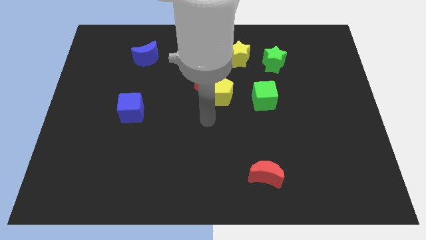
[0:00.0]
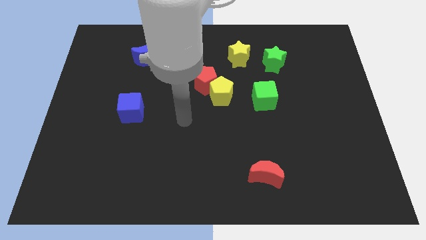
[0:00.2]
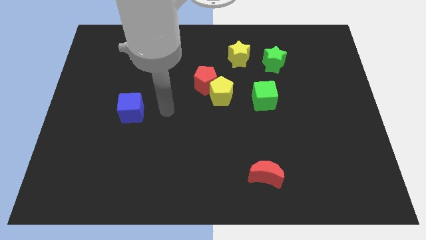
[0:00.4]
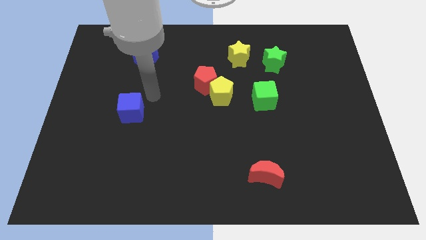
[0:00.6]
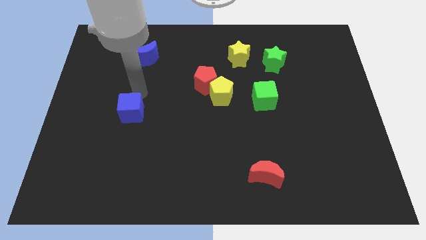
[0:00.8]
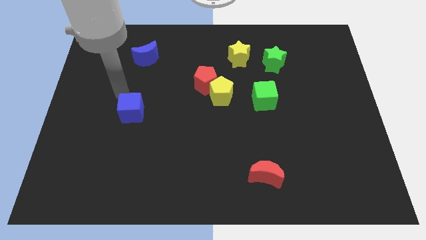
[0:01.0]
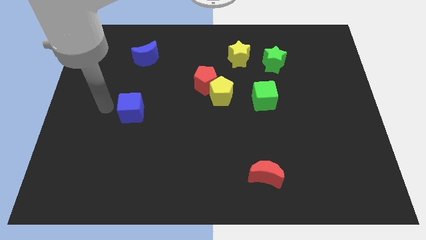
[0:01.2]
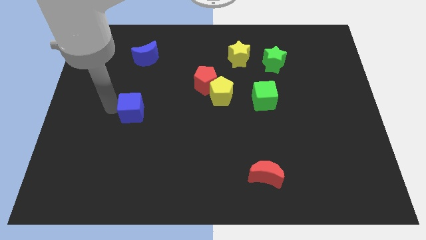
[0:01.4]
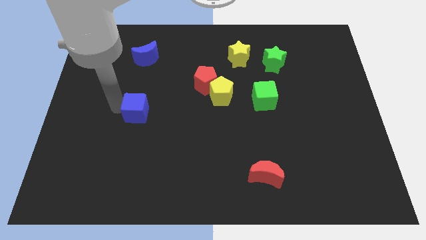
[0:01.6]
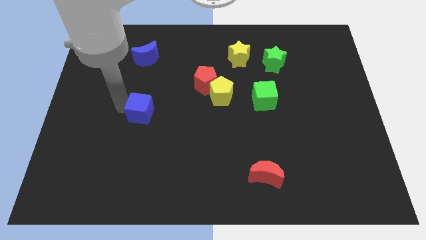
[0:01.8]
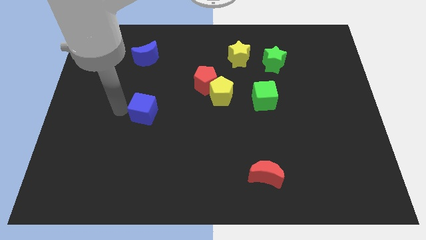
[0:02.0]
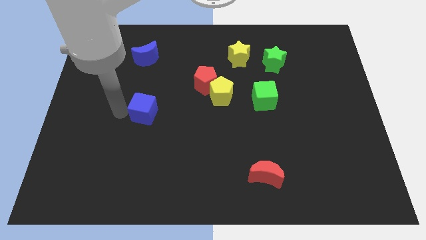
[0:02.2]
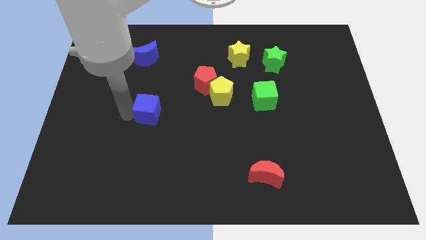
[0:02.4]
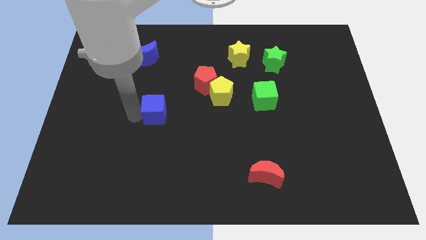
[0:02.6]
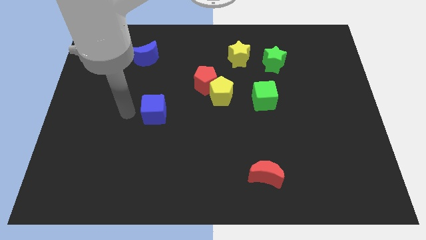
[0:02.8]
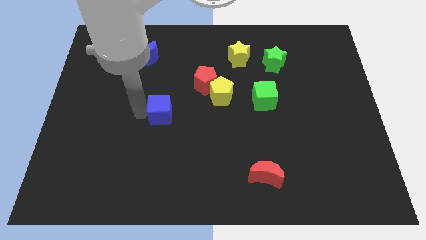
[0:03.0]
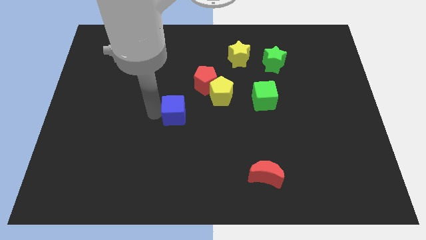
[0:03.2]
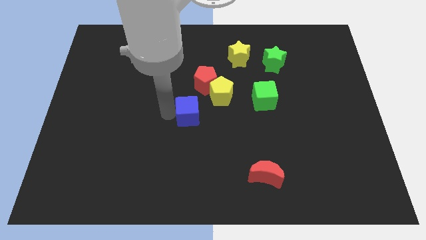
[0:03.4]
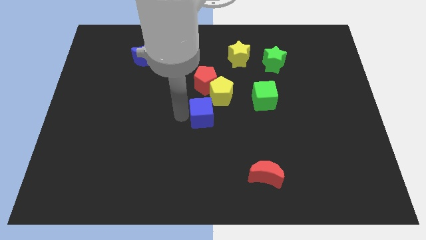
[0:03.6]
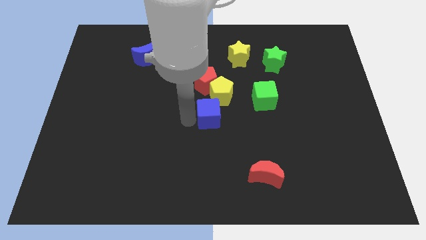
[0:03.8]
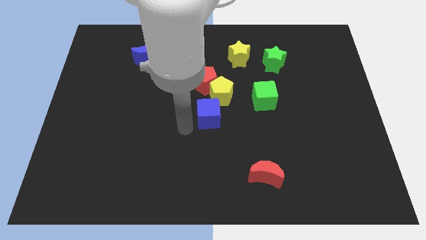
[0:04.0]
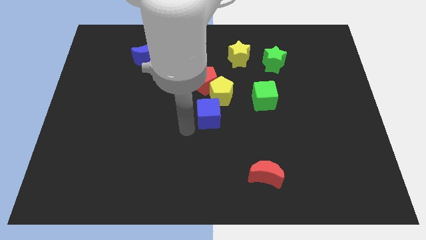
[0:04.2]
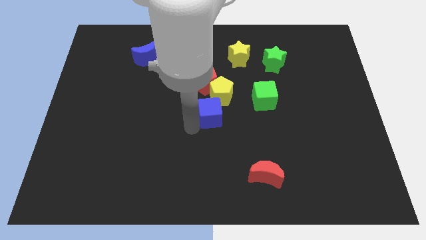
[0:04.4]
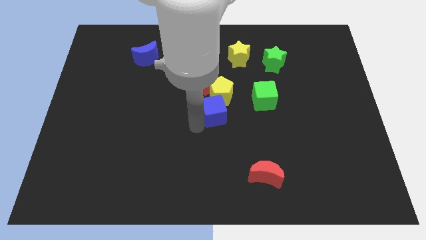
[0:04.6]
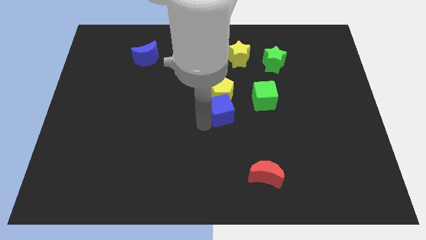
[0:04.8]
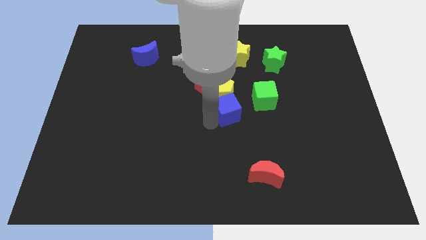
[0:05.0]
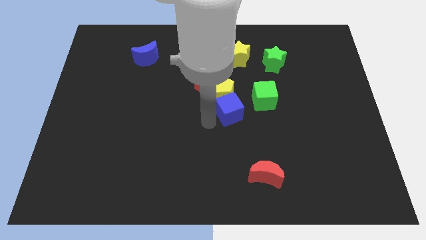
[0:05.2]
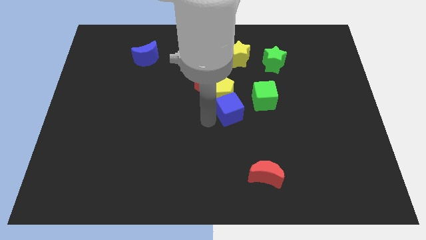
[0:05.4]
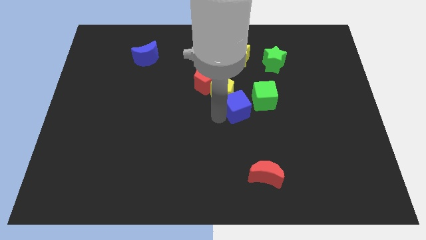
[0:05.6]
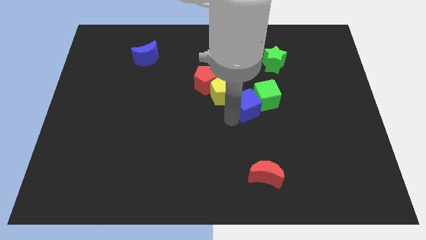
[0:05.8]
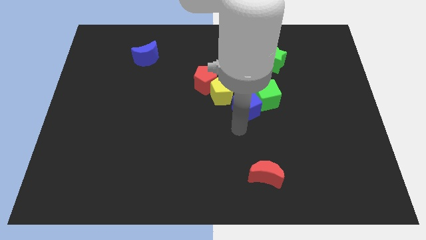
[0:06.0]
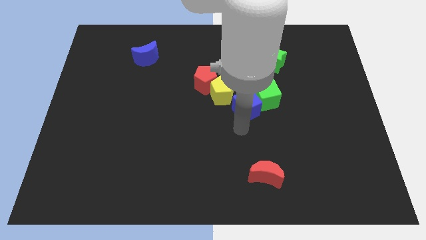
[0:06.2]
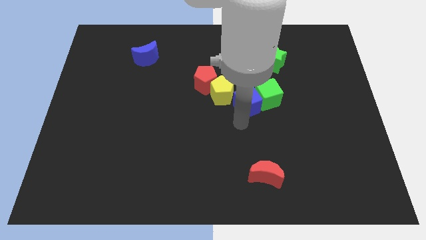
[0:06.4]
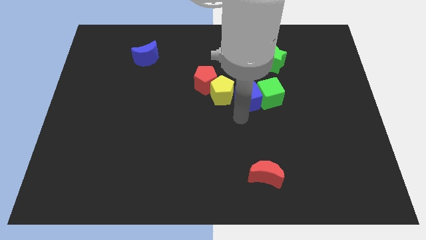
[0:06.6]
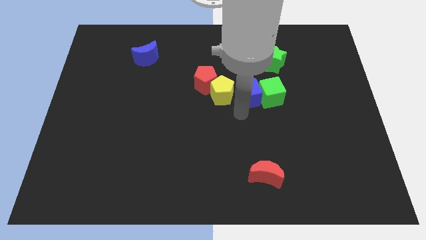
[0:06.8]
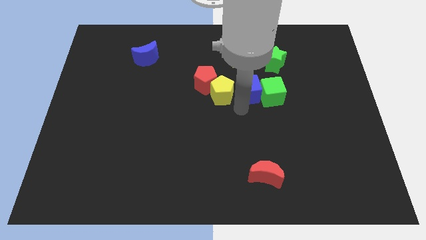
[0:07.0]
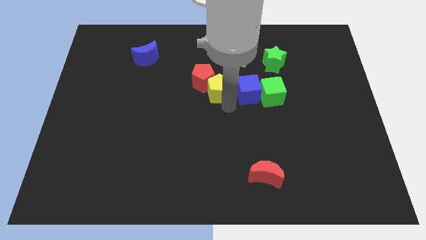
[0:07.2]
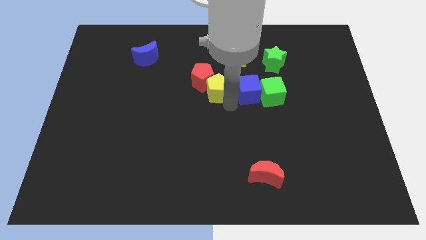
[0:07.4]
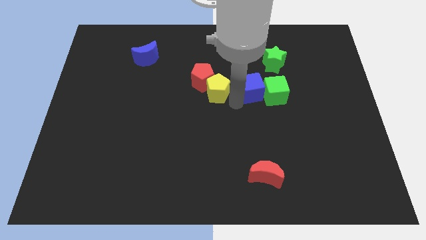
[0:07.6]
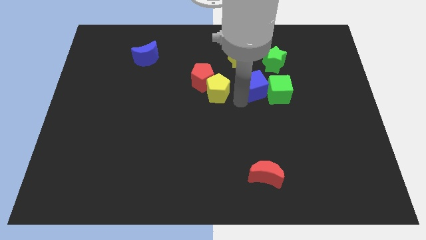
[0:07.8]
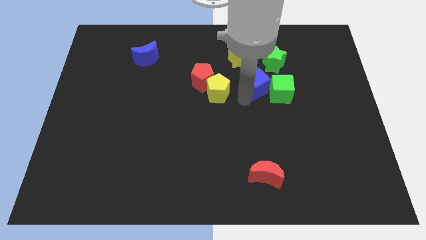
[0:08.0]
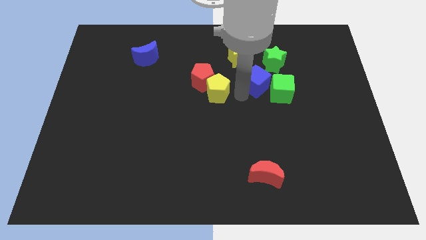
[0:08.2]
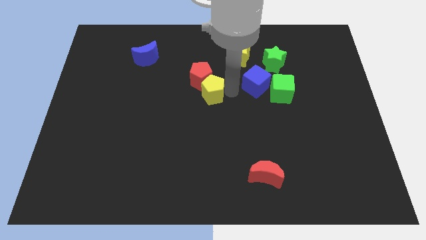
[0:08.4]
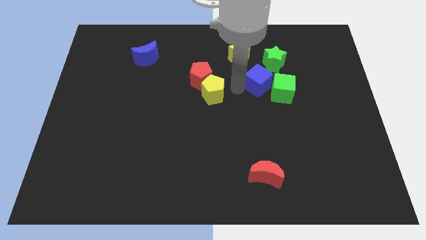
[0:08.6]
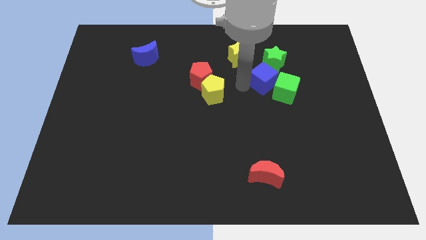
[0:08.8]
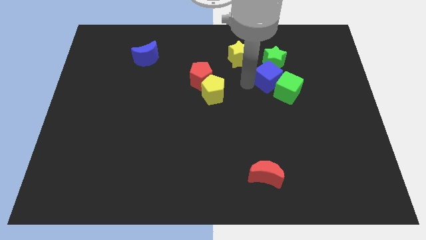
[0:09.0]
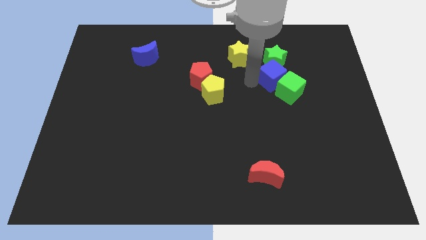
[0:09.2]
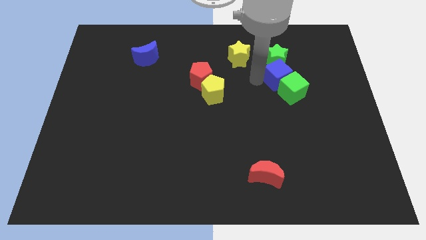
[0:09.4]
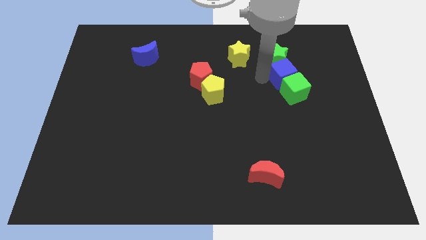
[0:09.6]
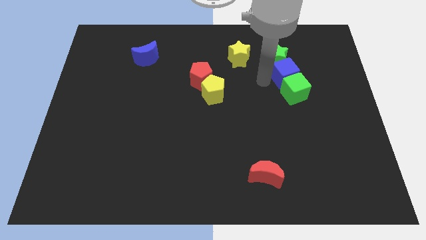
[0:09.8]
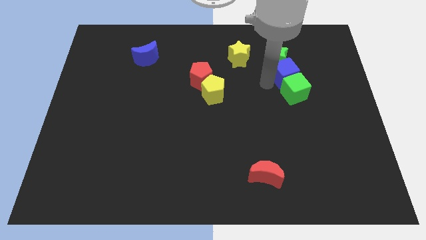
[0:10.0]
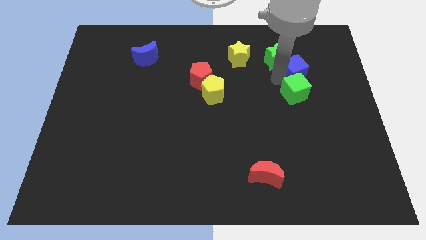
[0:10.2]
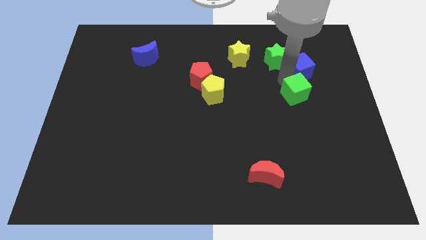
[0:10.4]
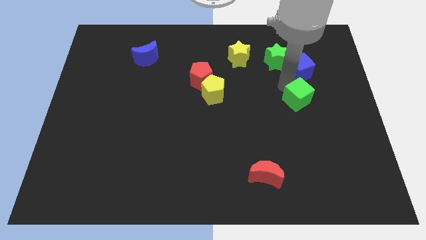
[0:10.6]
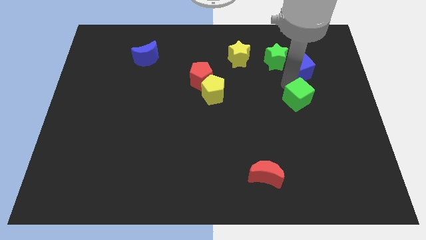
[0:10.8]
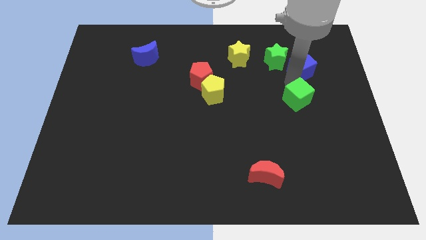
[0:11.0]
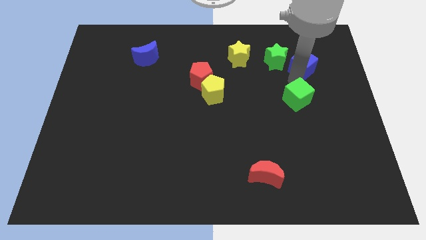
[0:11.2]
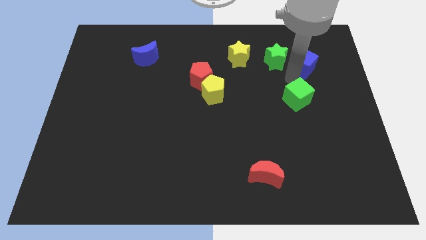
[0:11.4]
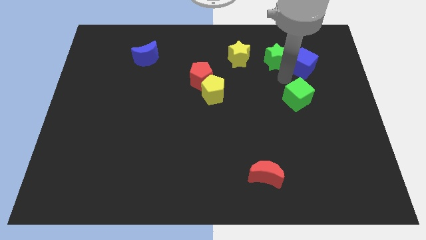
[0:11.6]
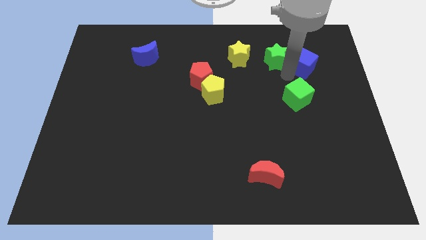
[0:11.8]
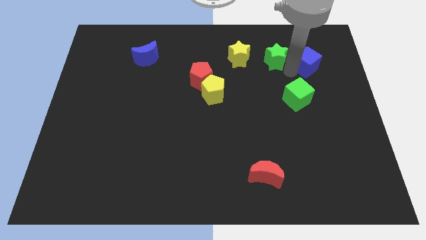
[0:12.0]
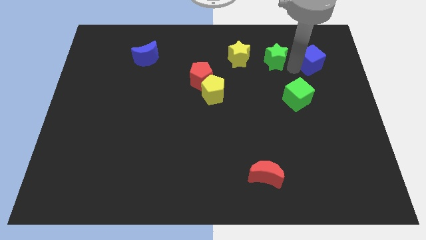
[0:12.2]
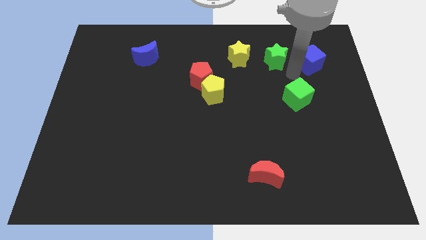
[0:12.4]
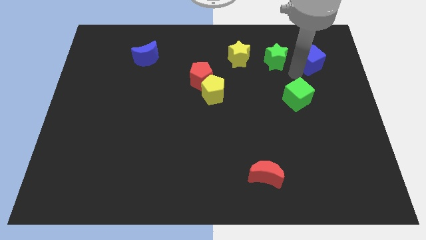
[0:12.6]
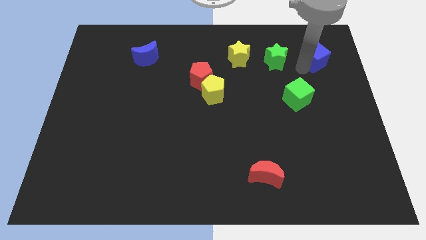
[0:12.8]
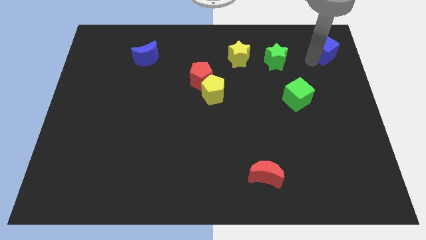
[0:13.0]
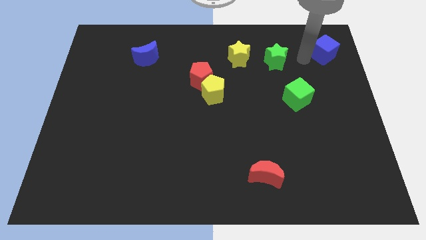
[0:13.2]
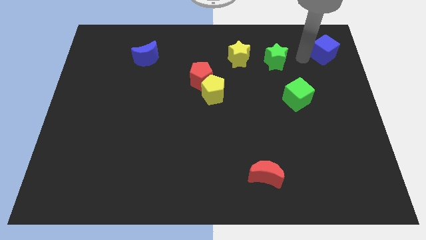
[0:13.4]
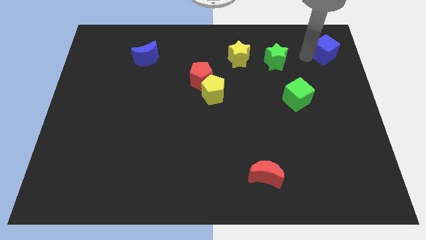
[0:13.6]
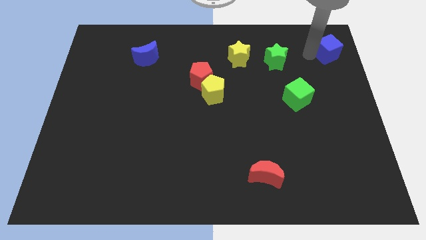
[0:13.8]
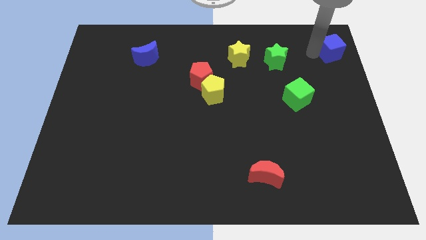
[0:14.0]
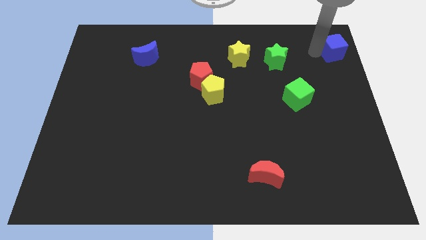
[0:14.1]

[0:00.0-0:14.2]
put the blue cube to the top right corner
